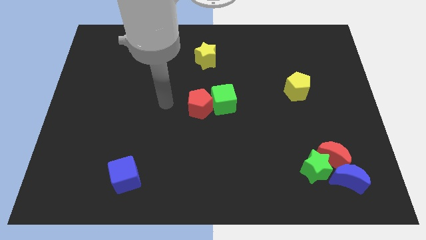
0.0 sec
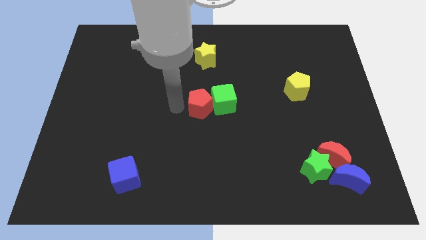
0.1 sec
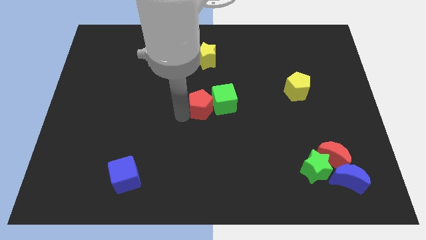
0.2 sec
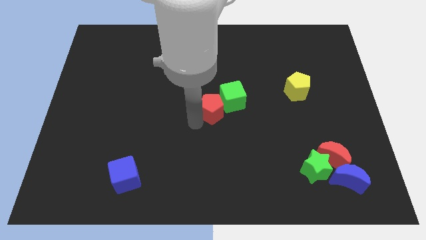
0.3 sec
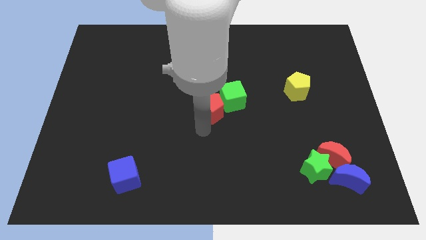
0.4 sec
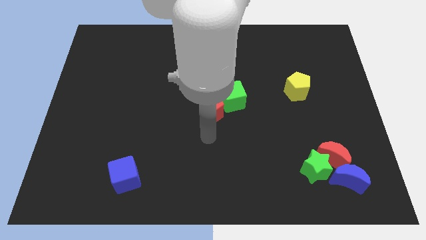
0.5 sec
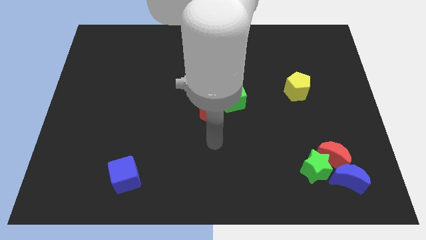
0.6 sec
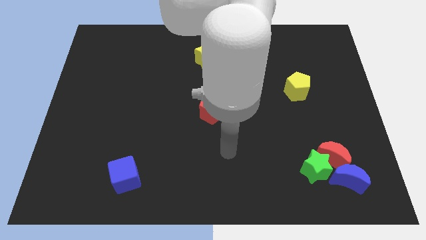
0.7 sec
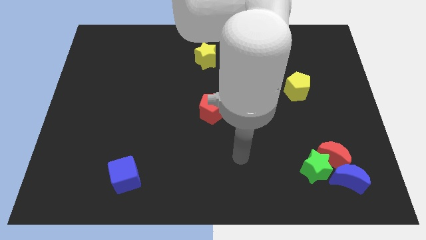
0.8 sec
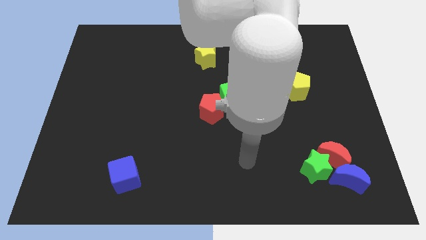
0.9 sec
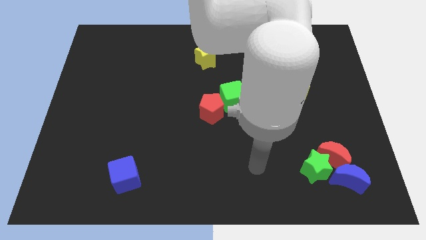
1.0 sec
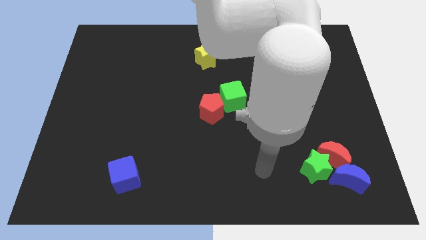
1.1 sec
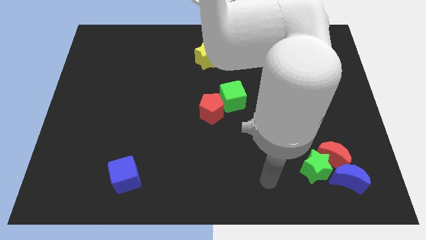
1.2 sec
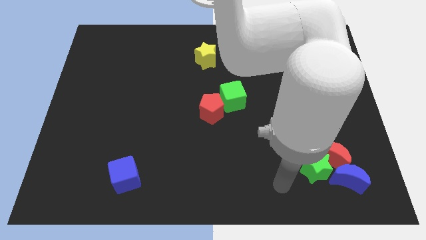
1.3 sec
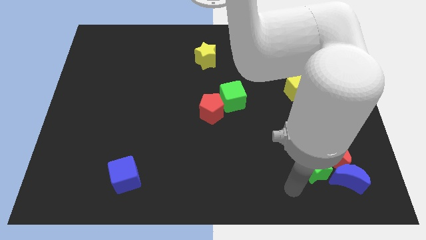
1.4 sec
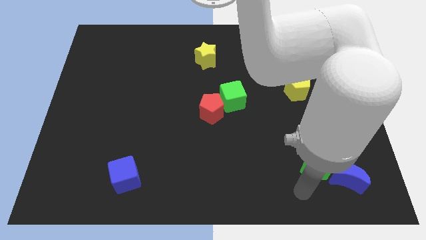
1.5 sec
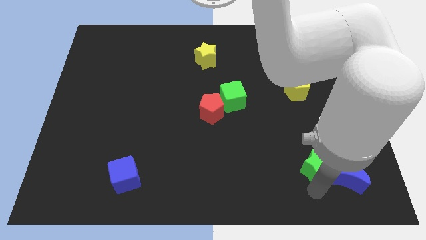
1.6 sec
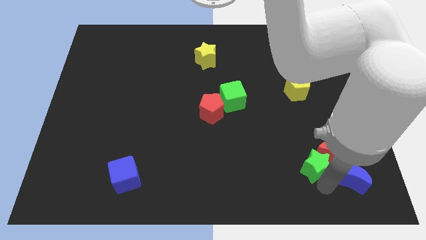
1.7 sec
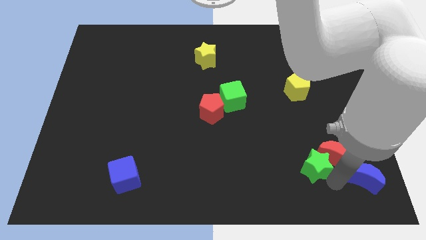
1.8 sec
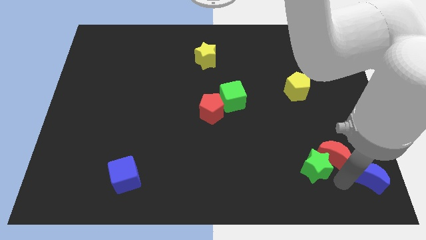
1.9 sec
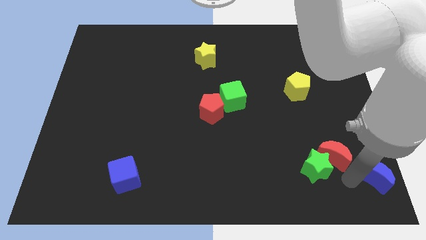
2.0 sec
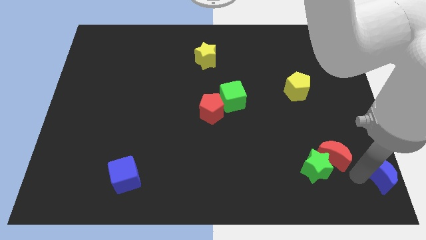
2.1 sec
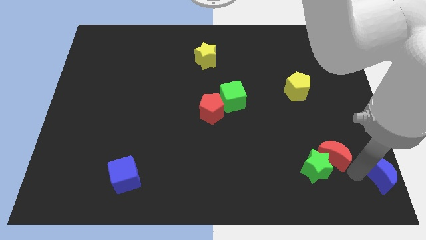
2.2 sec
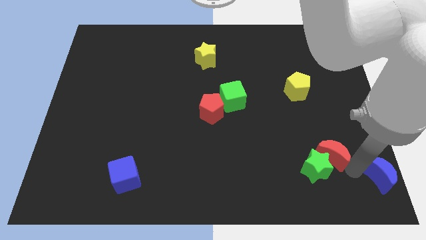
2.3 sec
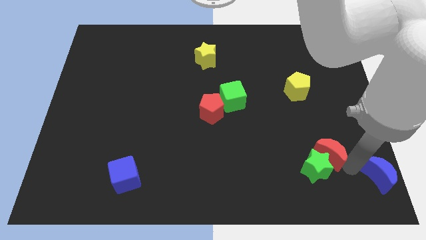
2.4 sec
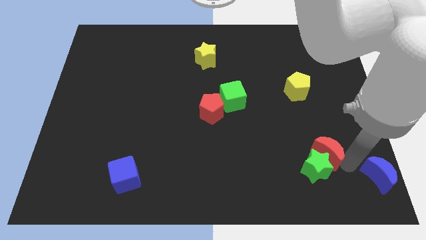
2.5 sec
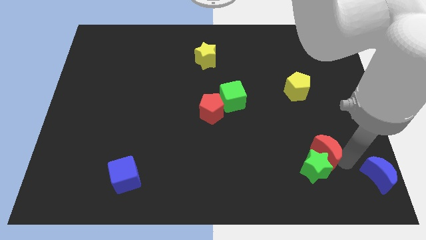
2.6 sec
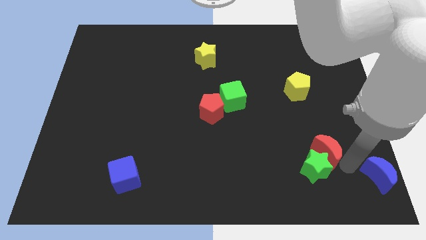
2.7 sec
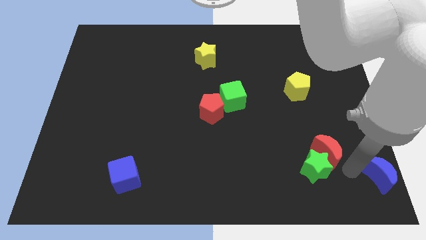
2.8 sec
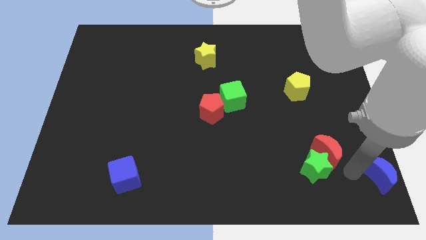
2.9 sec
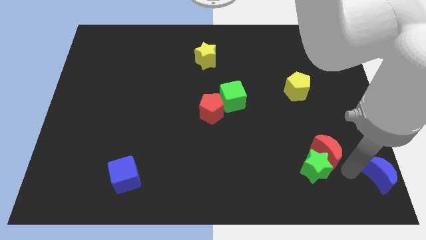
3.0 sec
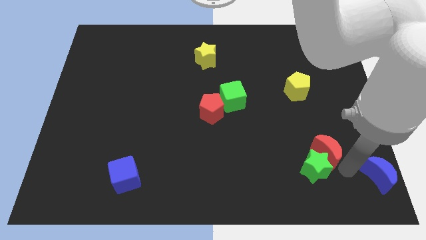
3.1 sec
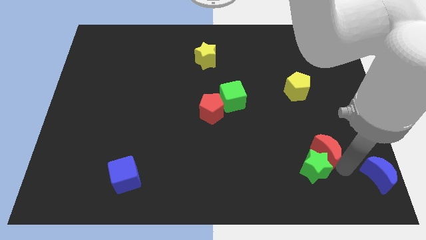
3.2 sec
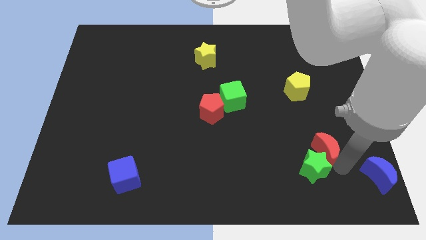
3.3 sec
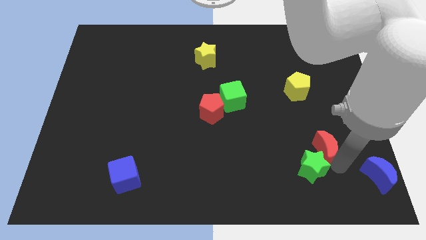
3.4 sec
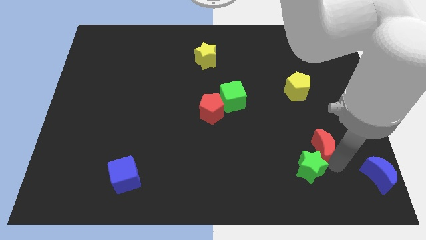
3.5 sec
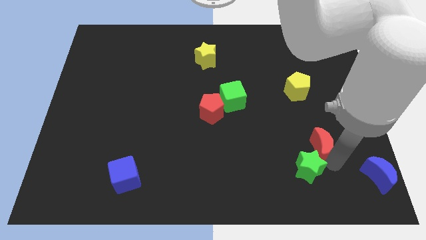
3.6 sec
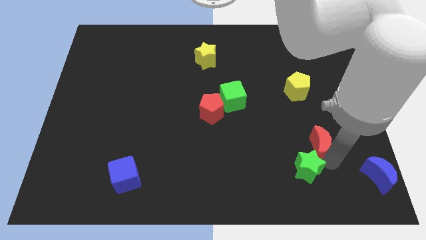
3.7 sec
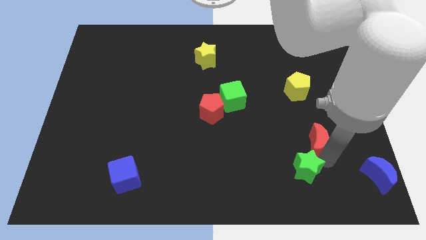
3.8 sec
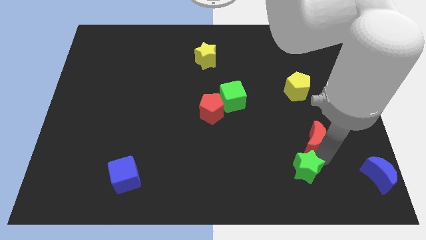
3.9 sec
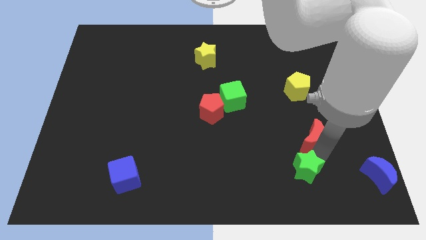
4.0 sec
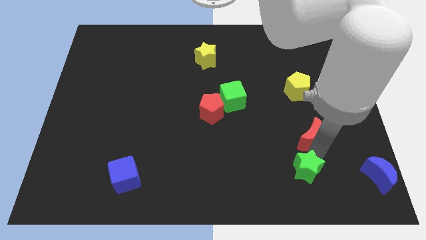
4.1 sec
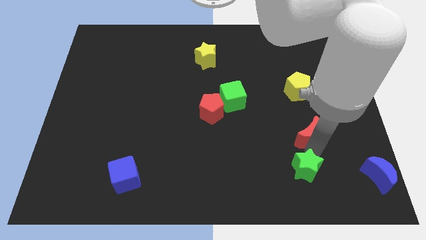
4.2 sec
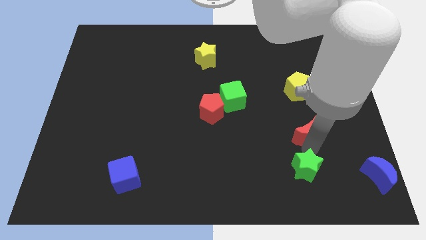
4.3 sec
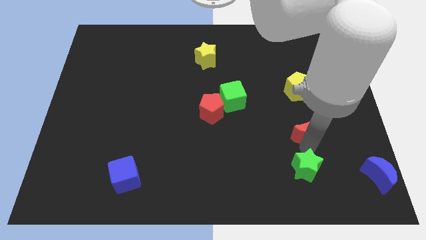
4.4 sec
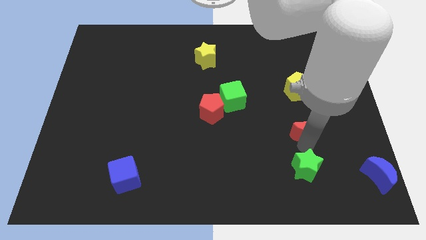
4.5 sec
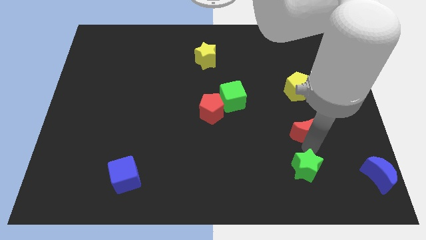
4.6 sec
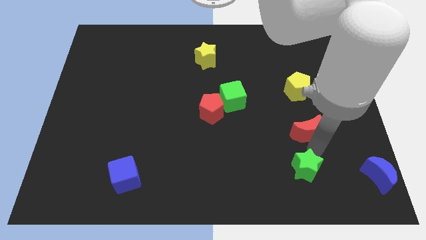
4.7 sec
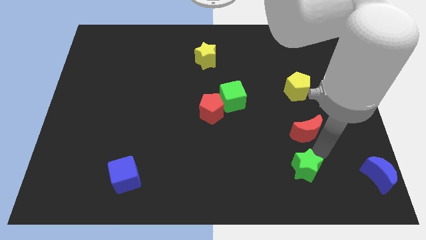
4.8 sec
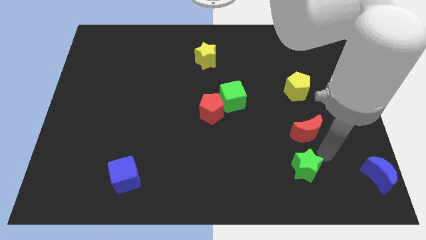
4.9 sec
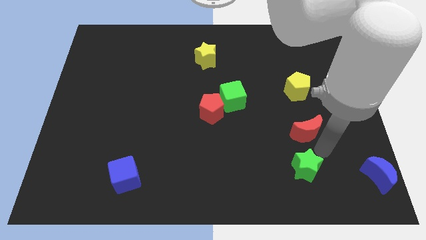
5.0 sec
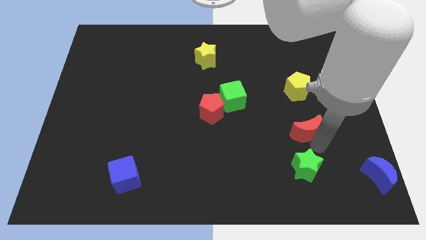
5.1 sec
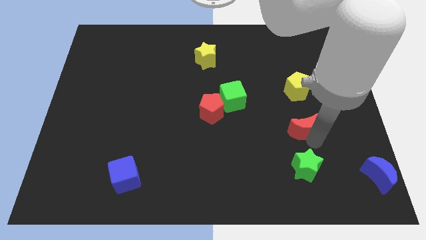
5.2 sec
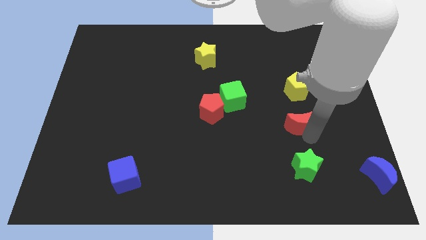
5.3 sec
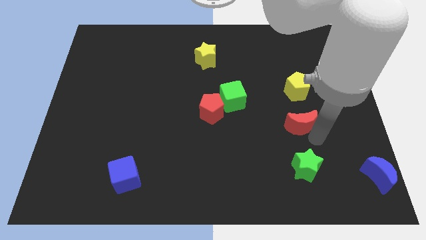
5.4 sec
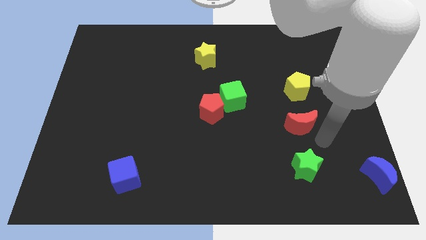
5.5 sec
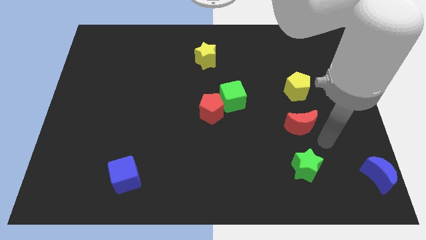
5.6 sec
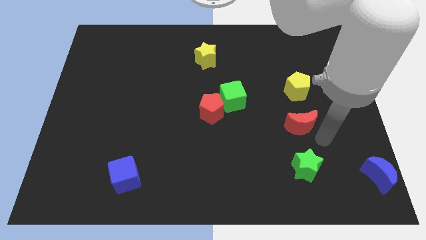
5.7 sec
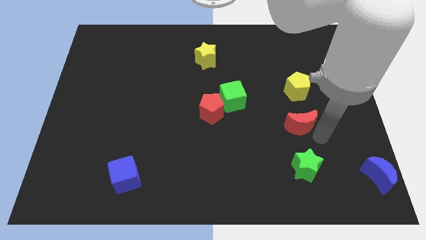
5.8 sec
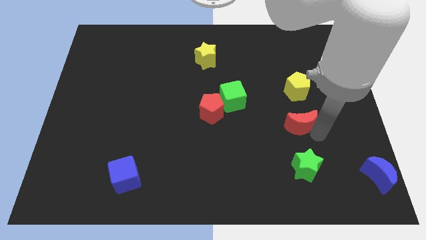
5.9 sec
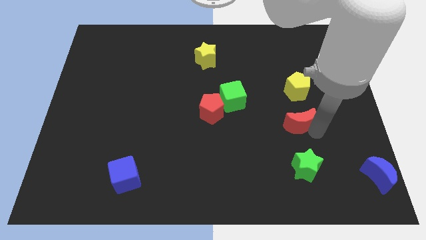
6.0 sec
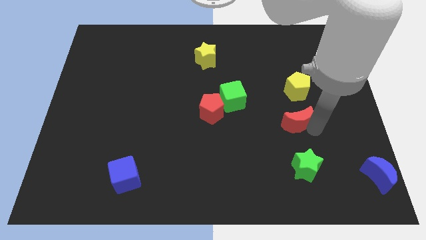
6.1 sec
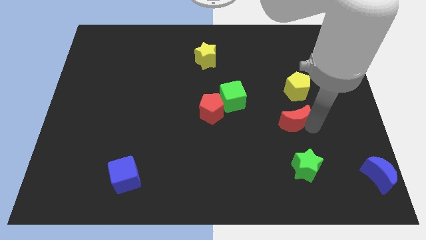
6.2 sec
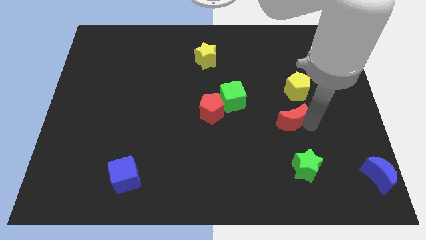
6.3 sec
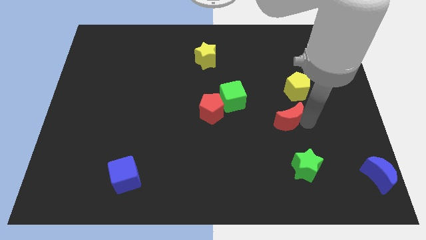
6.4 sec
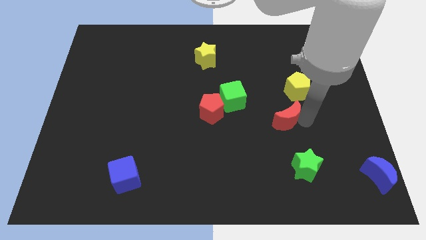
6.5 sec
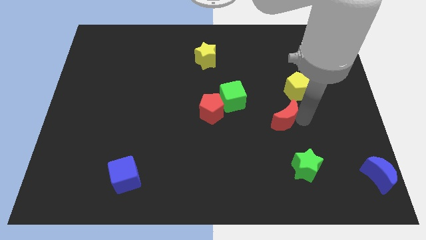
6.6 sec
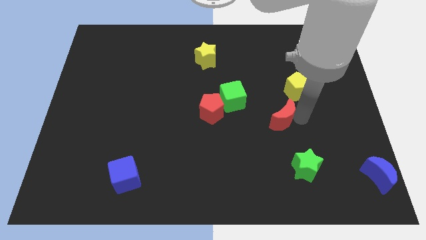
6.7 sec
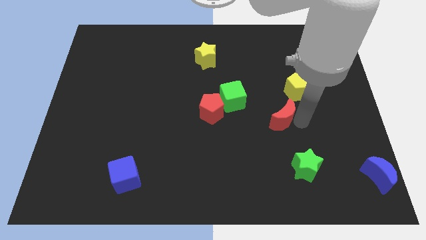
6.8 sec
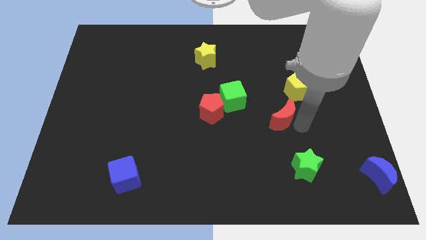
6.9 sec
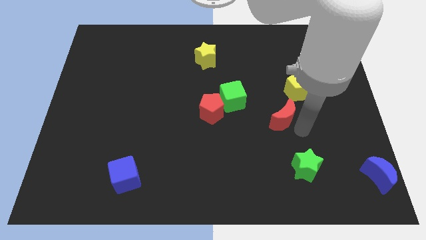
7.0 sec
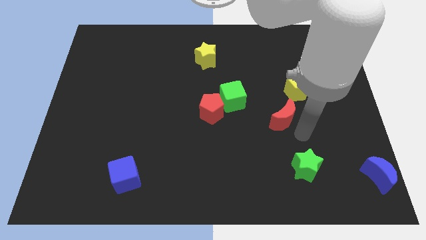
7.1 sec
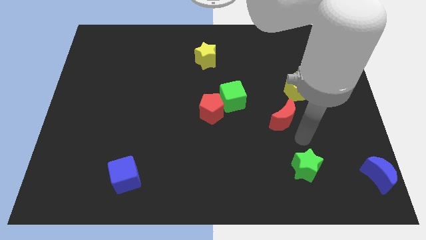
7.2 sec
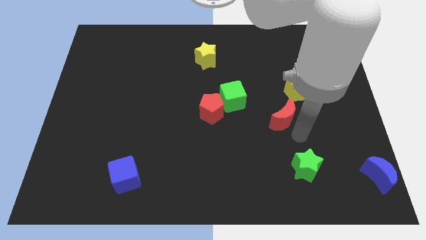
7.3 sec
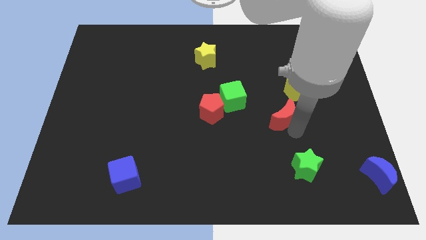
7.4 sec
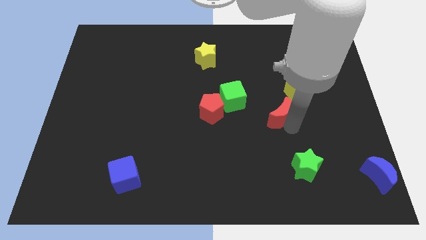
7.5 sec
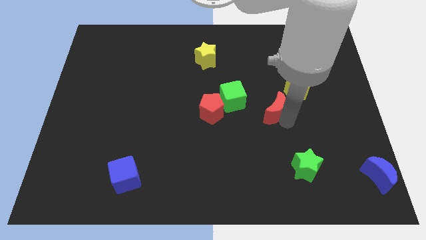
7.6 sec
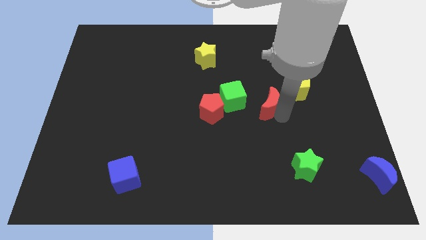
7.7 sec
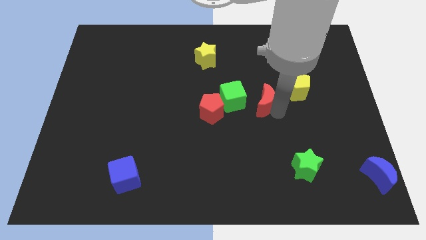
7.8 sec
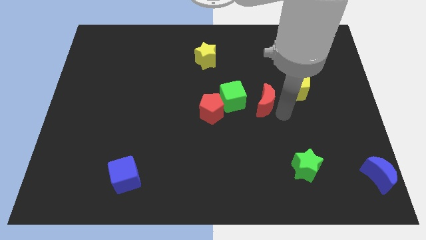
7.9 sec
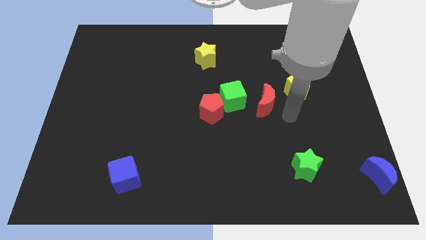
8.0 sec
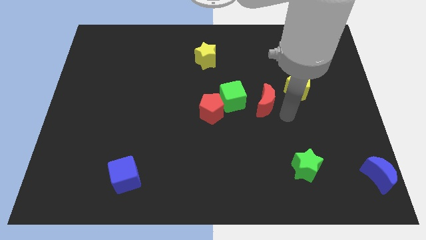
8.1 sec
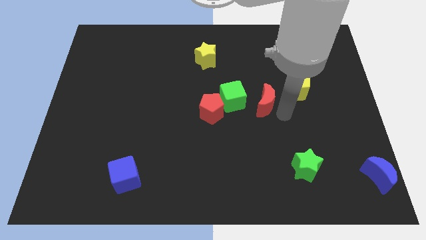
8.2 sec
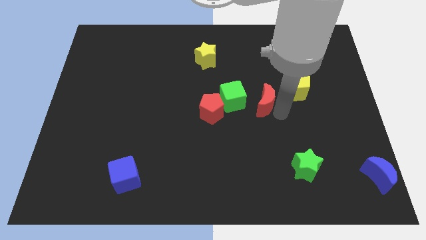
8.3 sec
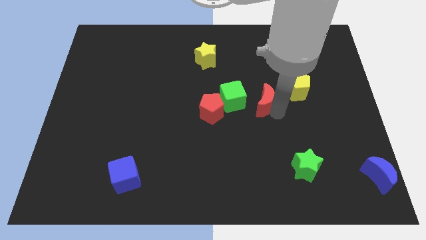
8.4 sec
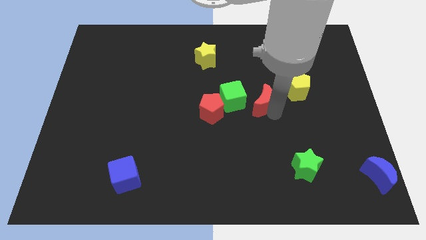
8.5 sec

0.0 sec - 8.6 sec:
push the red moon up and left
